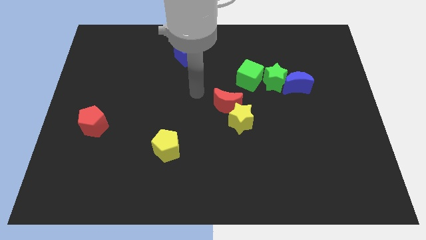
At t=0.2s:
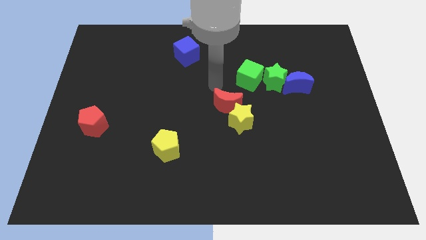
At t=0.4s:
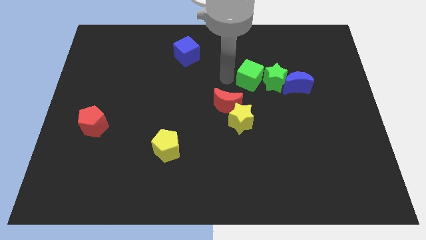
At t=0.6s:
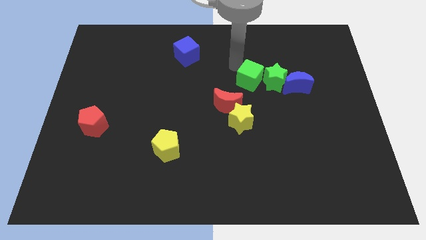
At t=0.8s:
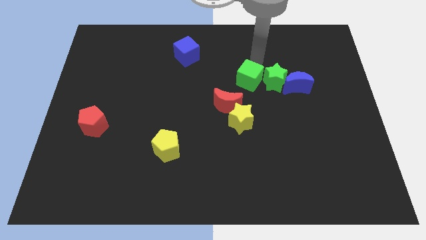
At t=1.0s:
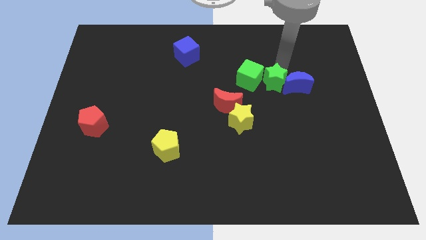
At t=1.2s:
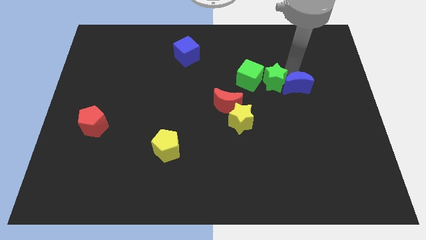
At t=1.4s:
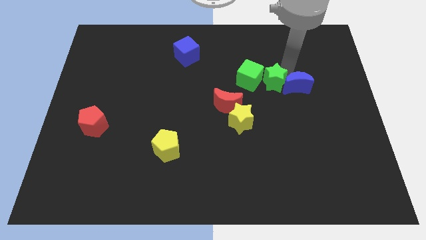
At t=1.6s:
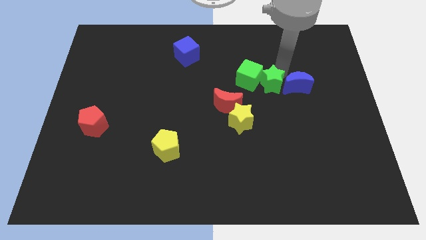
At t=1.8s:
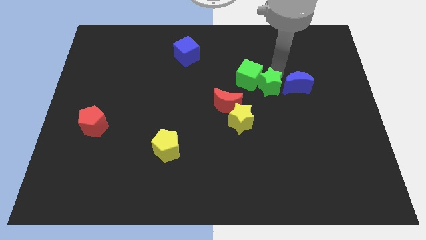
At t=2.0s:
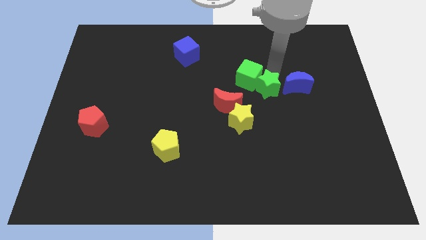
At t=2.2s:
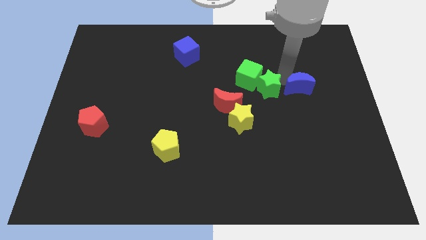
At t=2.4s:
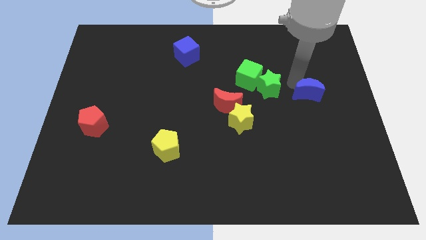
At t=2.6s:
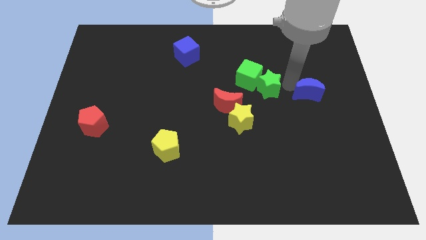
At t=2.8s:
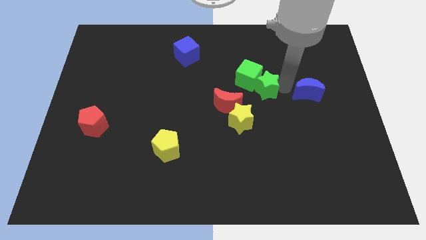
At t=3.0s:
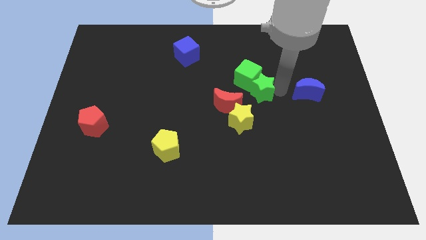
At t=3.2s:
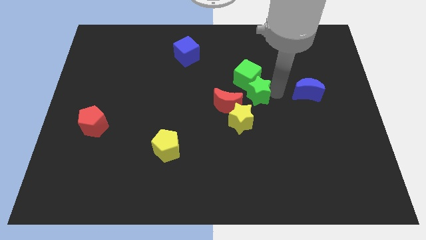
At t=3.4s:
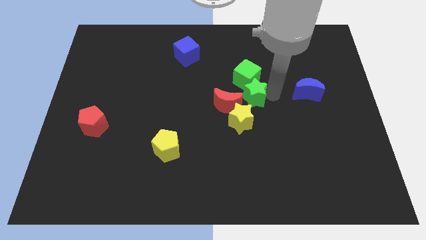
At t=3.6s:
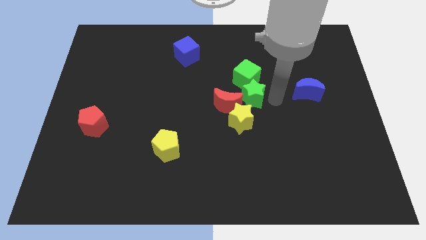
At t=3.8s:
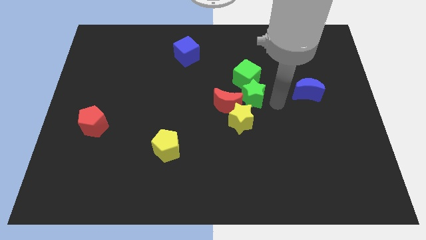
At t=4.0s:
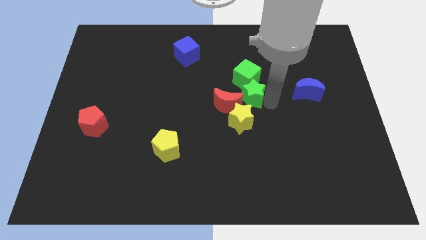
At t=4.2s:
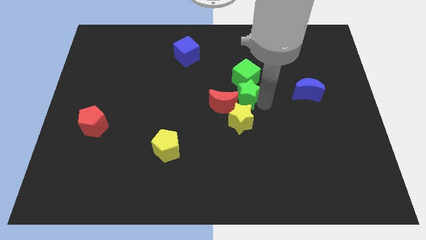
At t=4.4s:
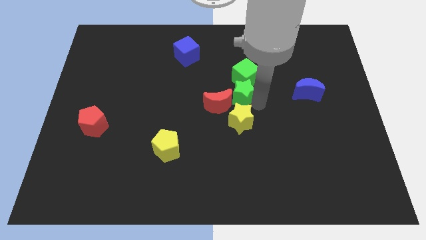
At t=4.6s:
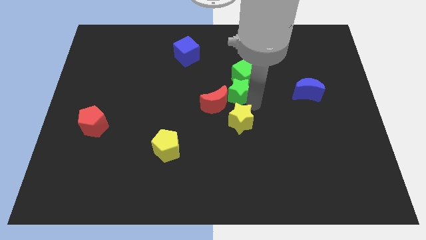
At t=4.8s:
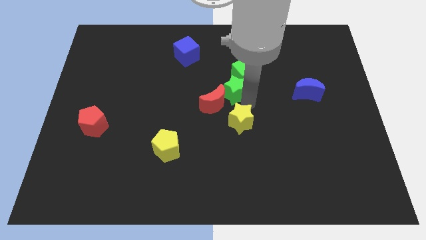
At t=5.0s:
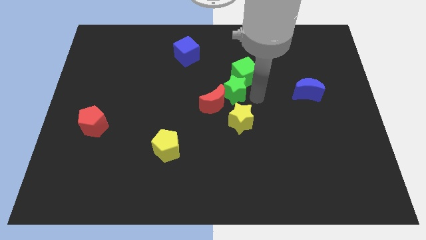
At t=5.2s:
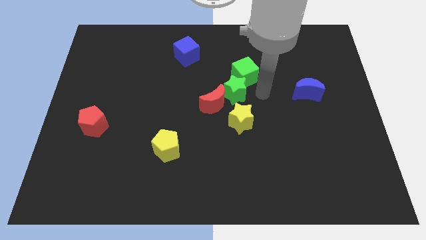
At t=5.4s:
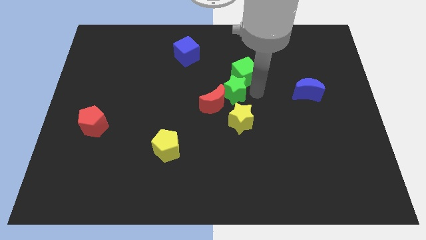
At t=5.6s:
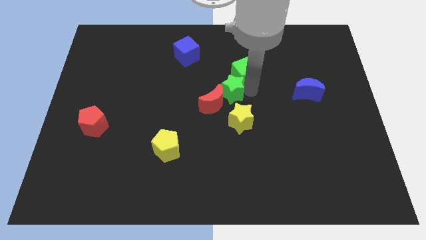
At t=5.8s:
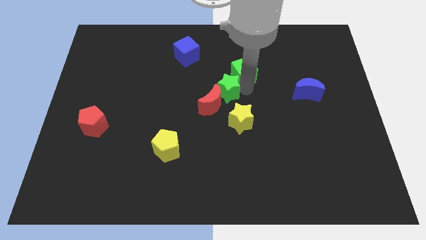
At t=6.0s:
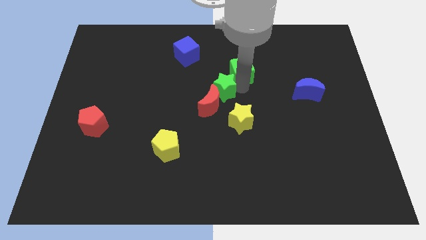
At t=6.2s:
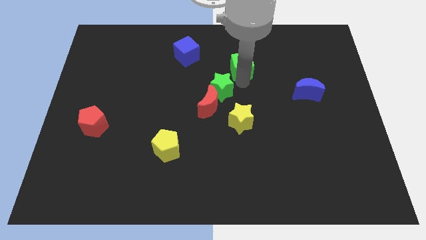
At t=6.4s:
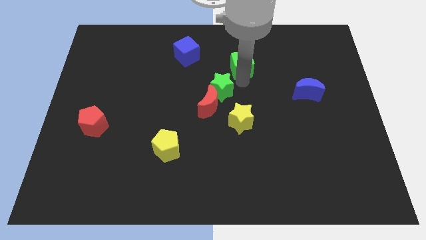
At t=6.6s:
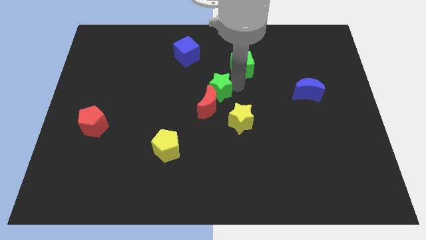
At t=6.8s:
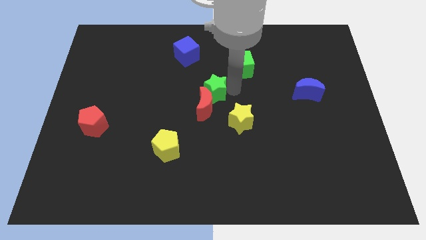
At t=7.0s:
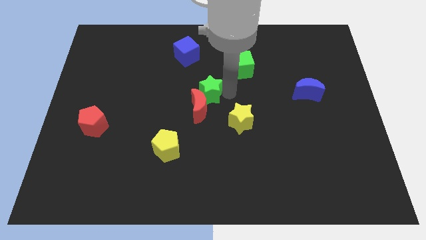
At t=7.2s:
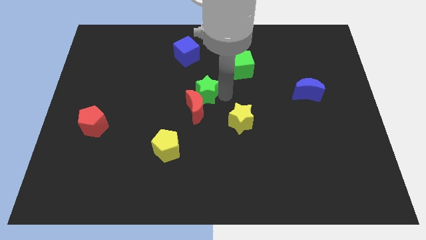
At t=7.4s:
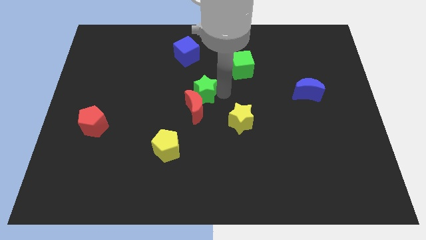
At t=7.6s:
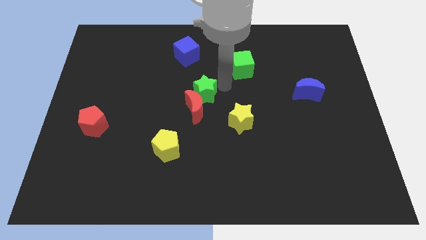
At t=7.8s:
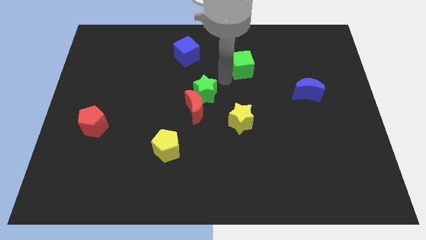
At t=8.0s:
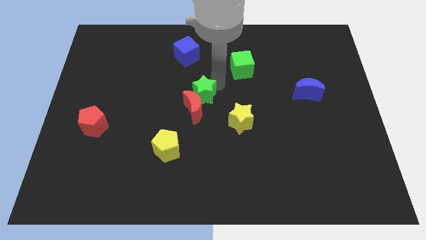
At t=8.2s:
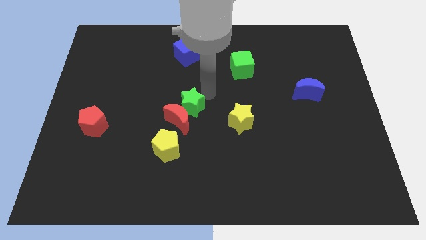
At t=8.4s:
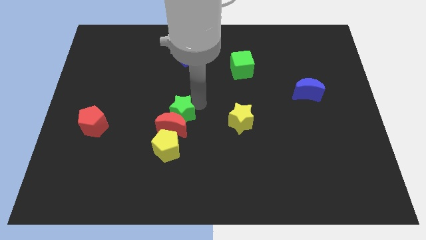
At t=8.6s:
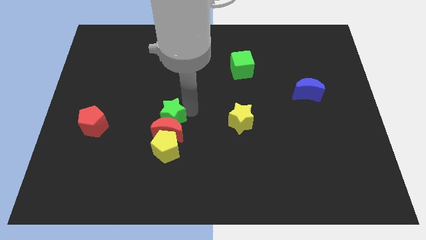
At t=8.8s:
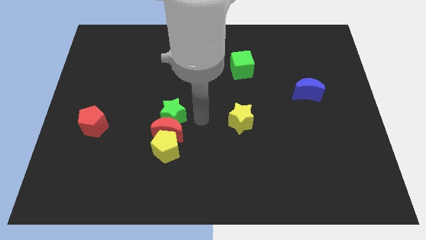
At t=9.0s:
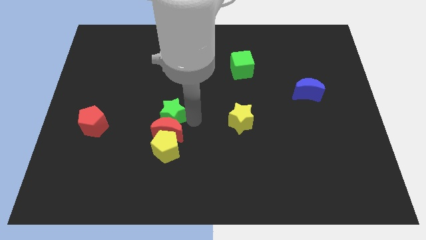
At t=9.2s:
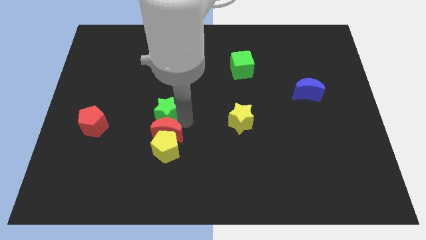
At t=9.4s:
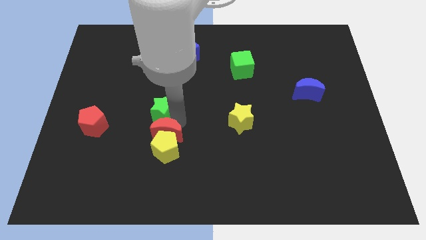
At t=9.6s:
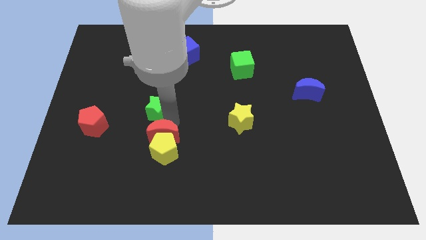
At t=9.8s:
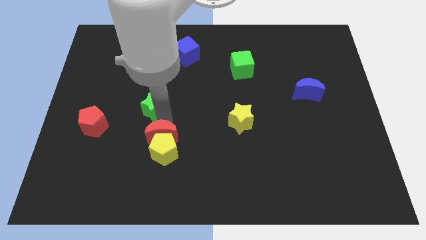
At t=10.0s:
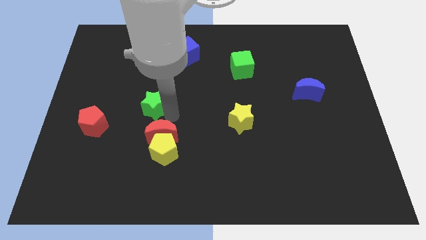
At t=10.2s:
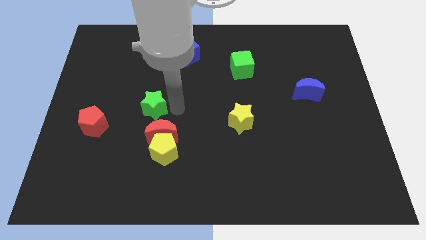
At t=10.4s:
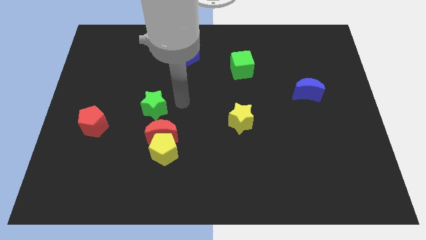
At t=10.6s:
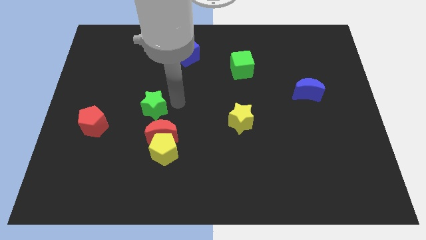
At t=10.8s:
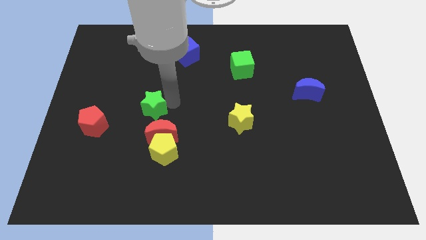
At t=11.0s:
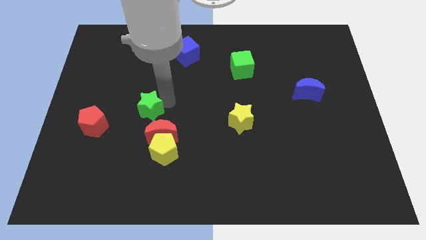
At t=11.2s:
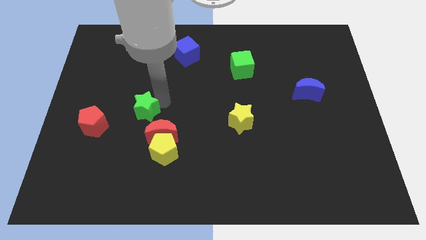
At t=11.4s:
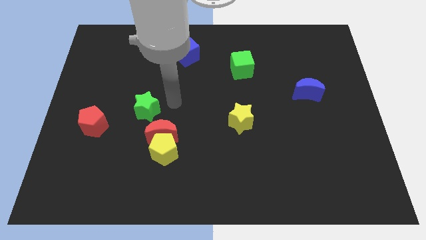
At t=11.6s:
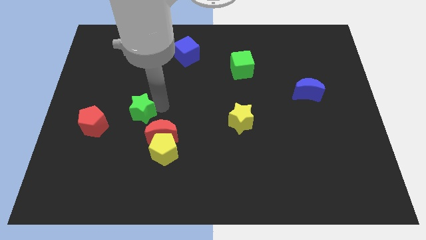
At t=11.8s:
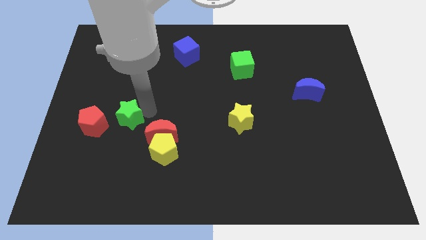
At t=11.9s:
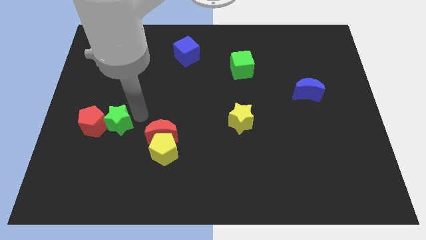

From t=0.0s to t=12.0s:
slide the green star next to the red pentagon

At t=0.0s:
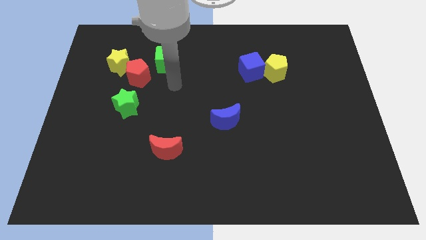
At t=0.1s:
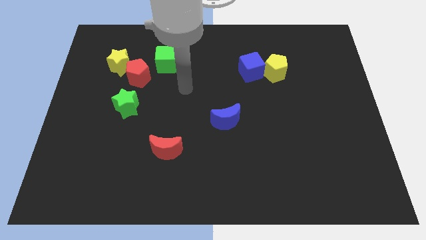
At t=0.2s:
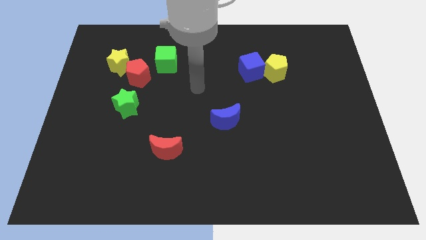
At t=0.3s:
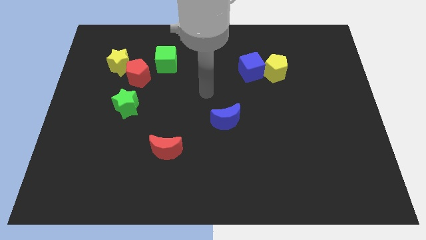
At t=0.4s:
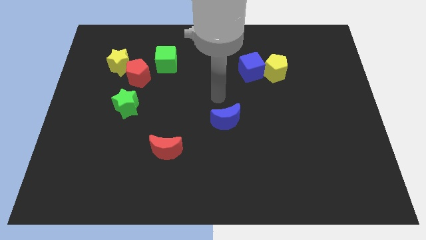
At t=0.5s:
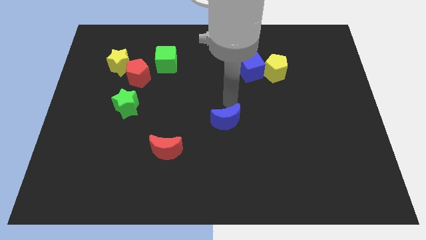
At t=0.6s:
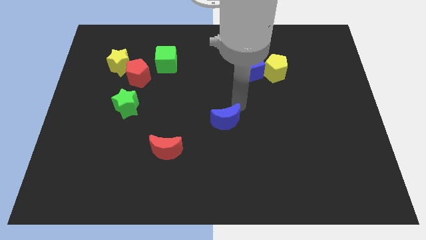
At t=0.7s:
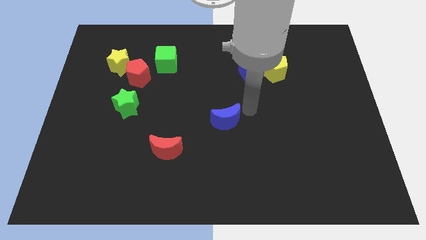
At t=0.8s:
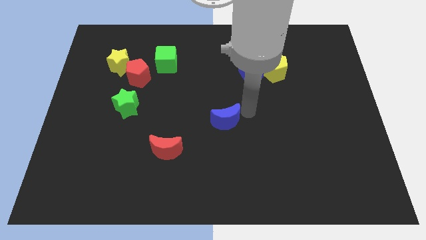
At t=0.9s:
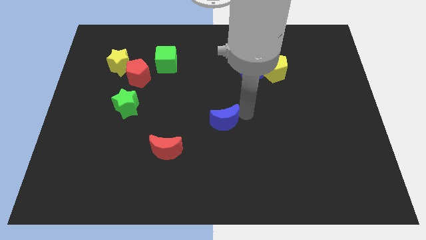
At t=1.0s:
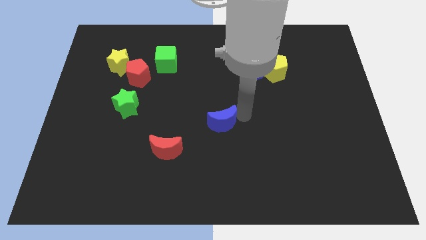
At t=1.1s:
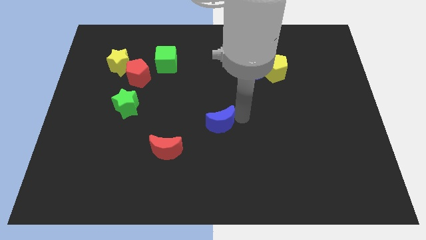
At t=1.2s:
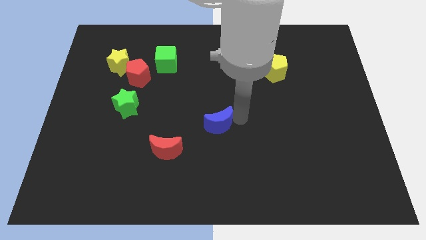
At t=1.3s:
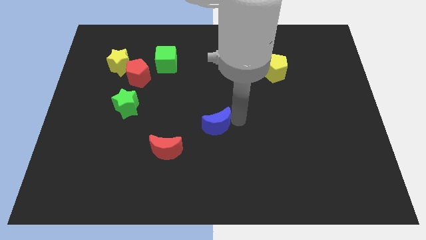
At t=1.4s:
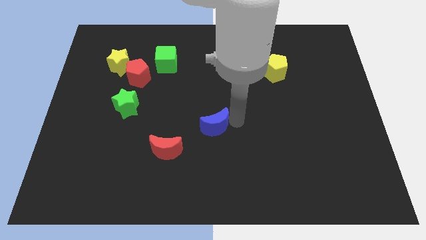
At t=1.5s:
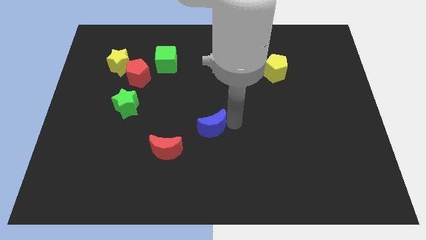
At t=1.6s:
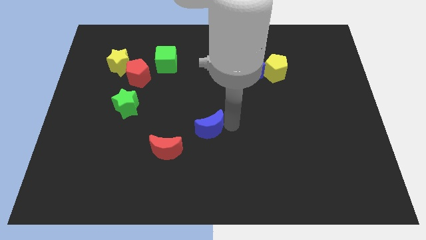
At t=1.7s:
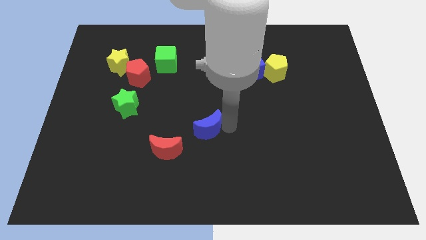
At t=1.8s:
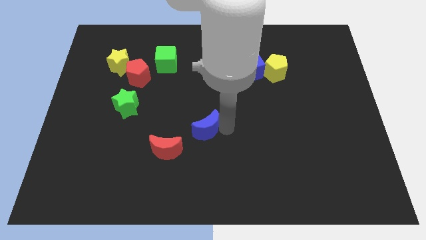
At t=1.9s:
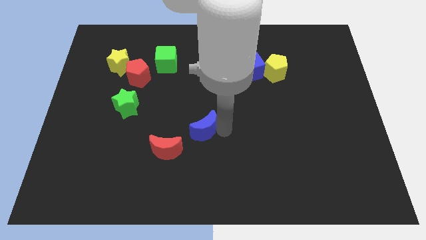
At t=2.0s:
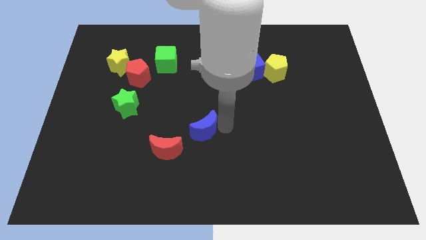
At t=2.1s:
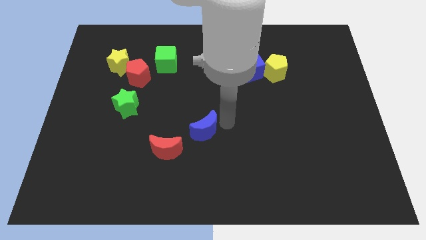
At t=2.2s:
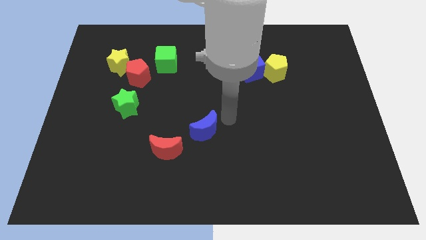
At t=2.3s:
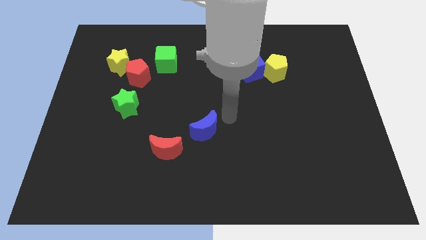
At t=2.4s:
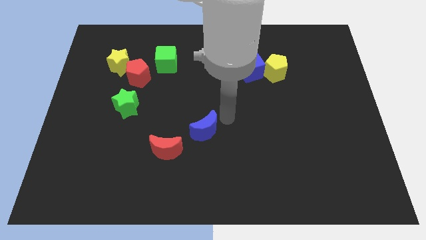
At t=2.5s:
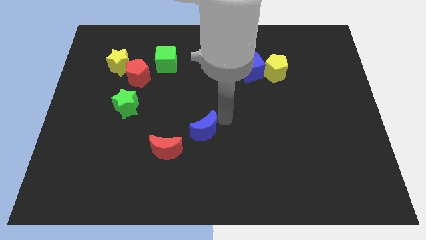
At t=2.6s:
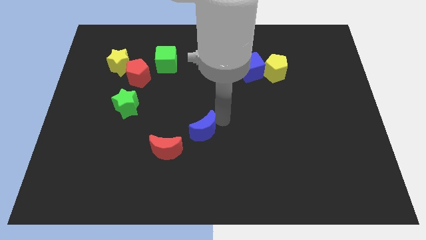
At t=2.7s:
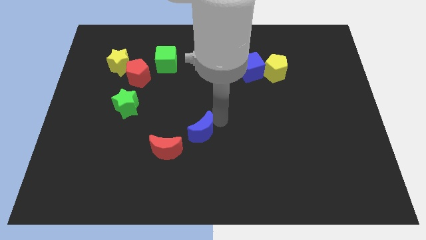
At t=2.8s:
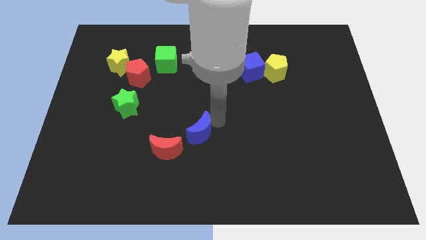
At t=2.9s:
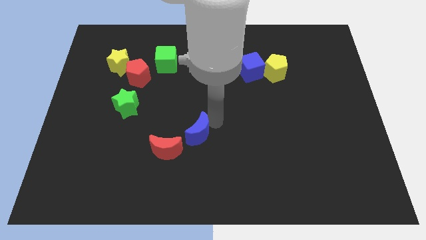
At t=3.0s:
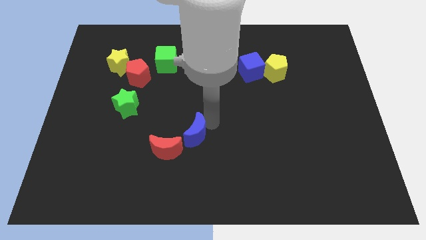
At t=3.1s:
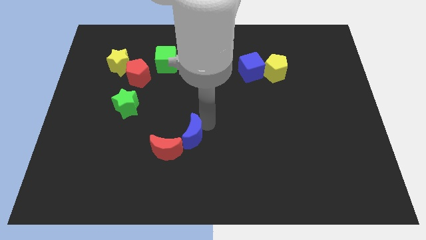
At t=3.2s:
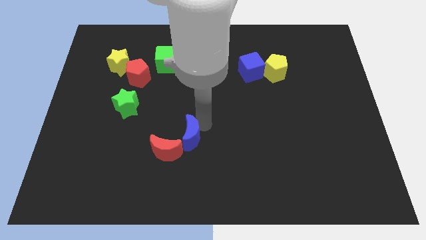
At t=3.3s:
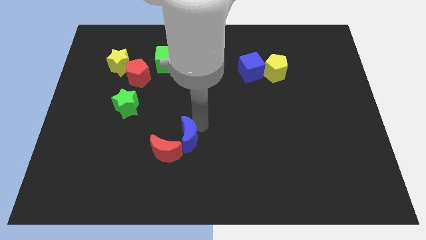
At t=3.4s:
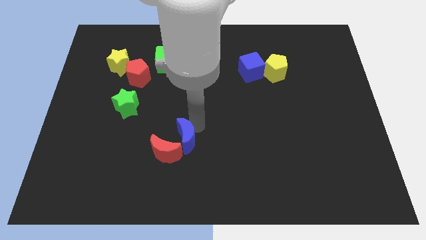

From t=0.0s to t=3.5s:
push the blue moon to the red moon
